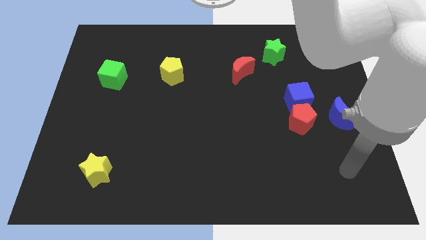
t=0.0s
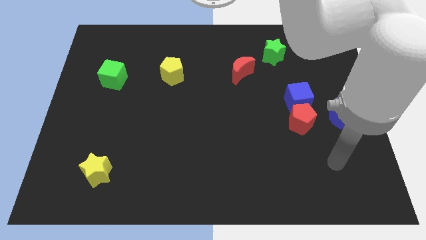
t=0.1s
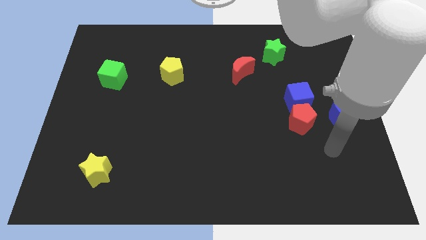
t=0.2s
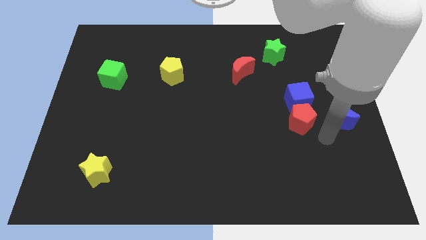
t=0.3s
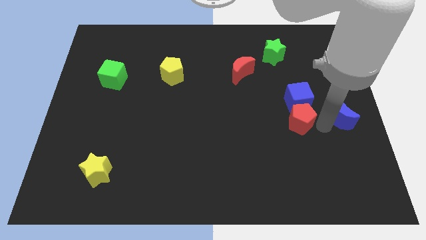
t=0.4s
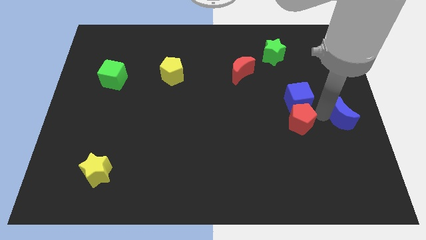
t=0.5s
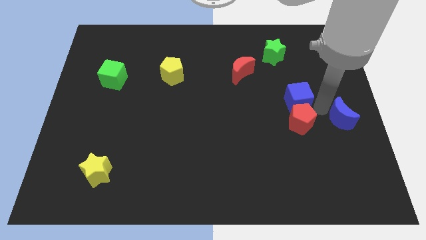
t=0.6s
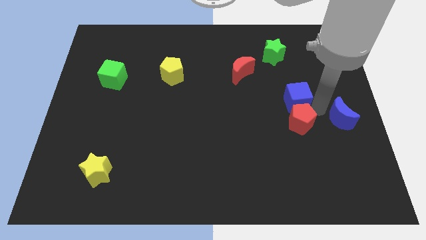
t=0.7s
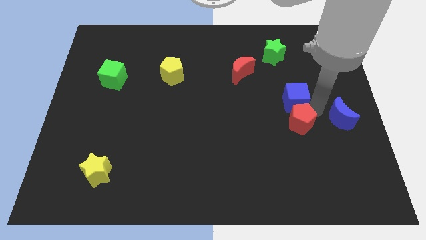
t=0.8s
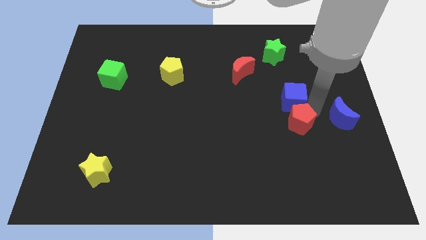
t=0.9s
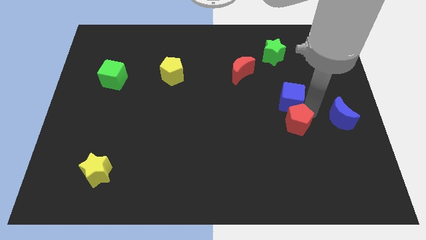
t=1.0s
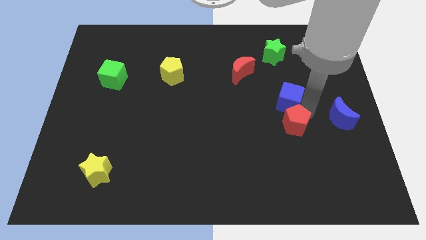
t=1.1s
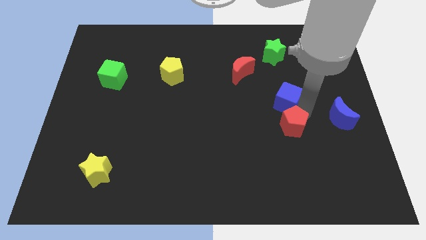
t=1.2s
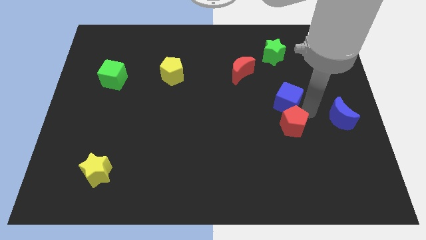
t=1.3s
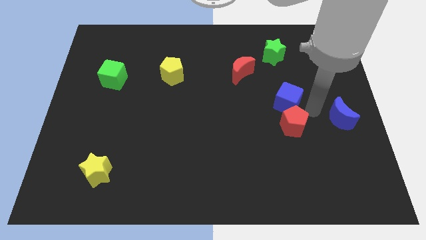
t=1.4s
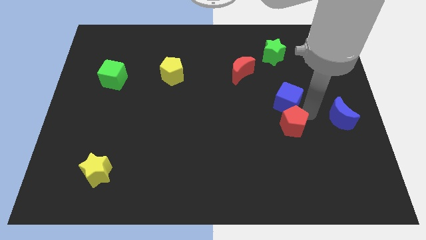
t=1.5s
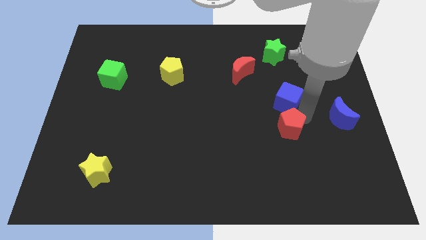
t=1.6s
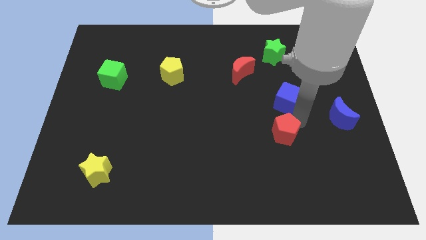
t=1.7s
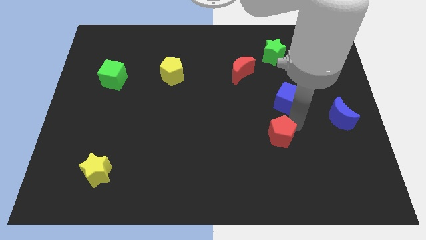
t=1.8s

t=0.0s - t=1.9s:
separate the red pentagon from the blue cube and blue moon

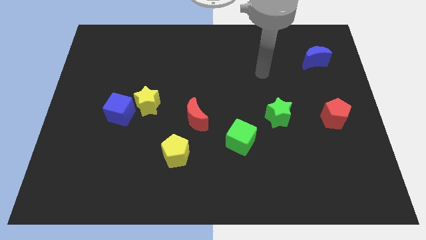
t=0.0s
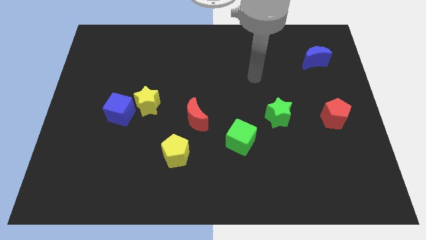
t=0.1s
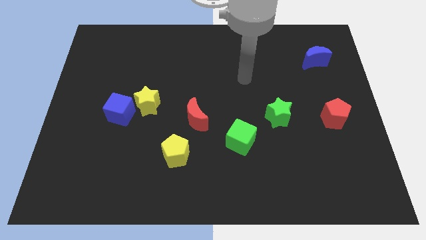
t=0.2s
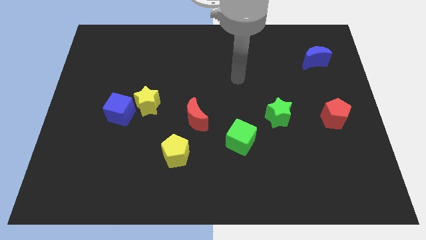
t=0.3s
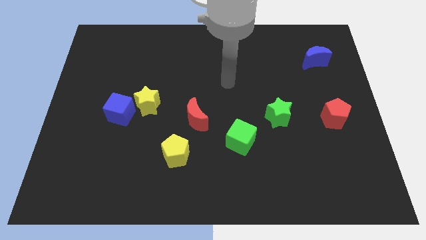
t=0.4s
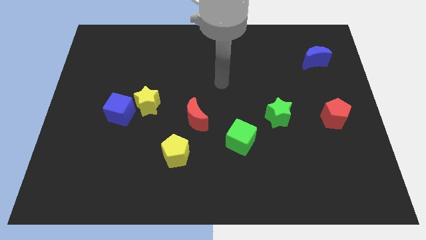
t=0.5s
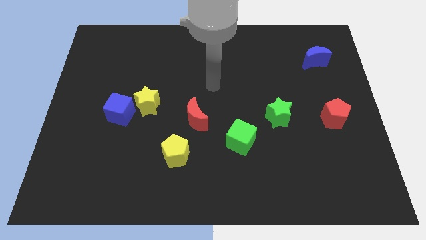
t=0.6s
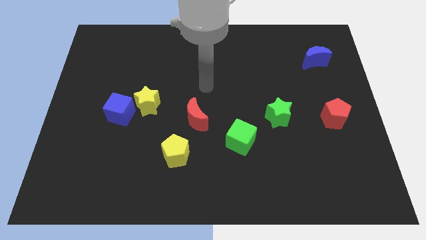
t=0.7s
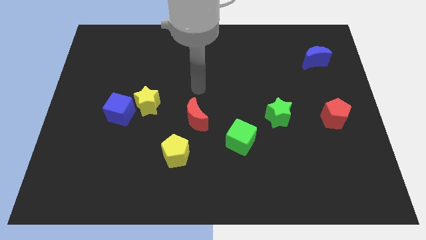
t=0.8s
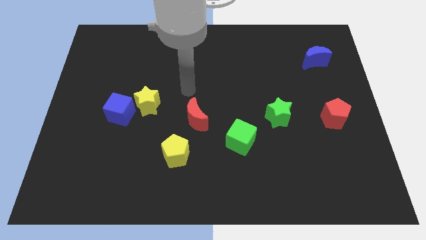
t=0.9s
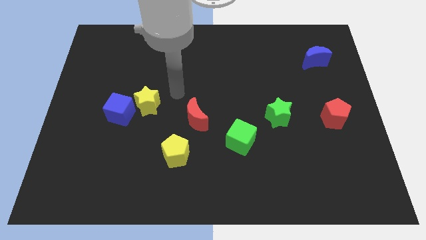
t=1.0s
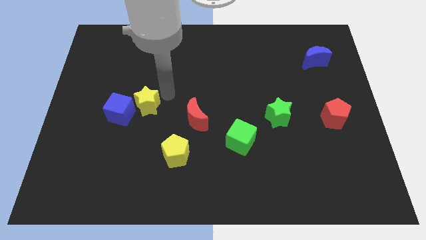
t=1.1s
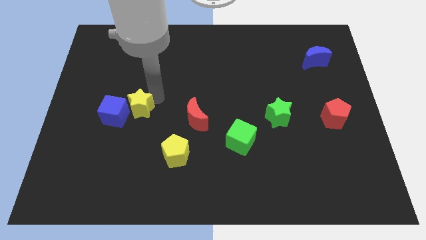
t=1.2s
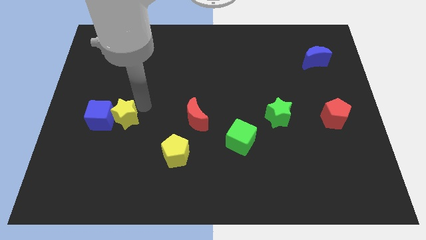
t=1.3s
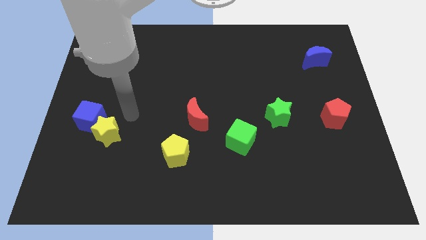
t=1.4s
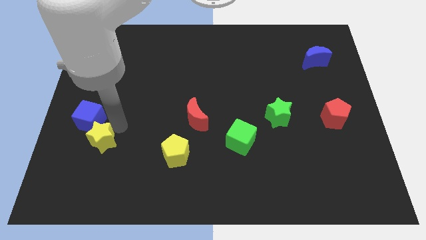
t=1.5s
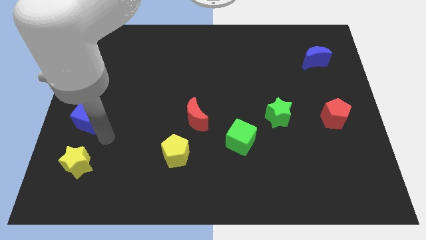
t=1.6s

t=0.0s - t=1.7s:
move the blue cube away from the yellow star

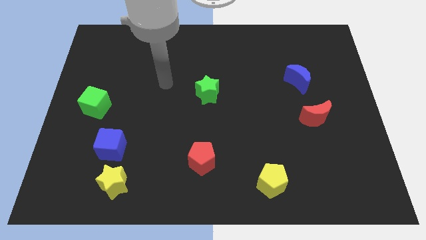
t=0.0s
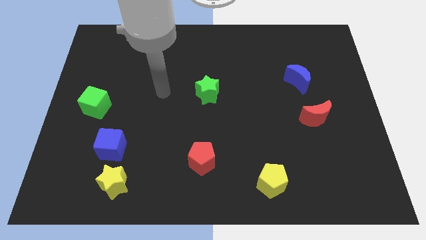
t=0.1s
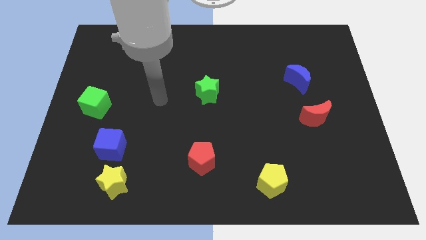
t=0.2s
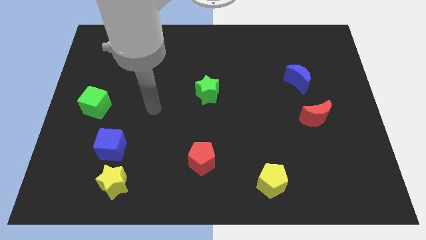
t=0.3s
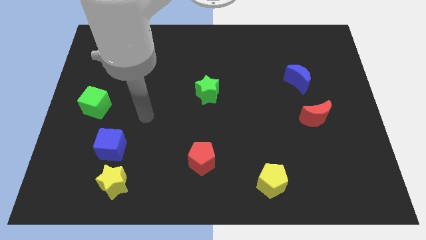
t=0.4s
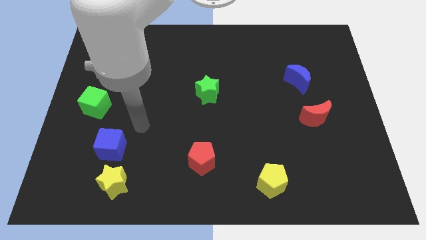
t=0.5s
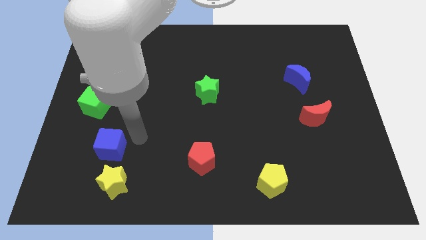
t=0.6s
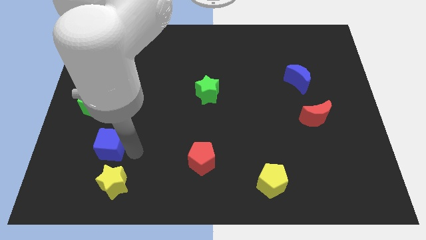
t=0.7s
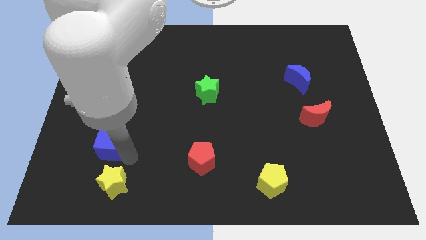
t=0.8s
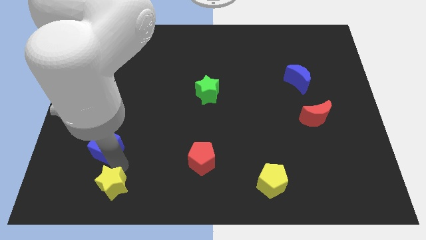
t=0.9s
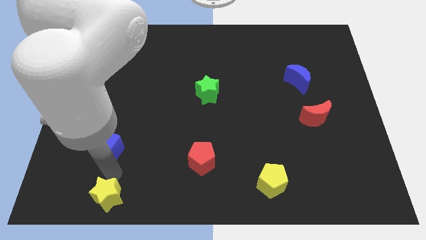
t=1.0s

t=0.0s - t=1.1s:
separate the blue cube from the yellow star

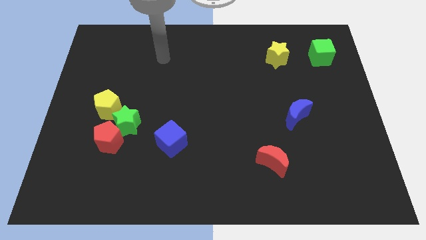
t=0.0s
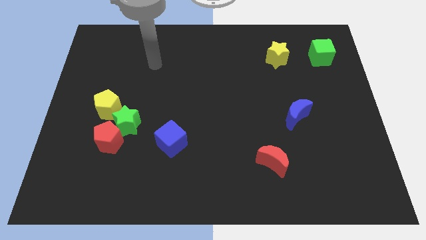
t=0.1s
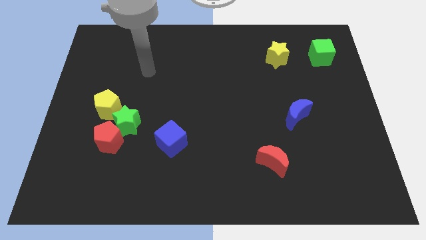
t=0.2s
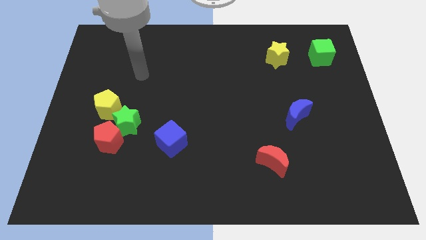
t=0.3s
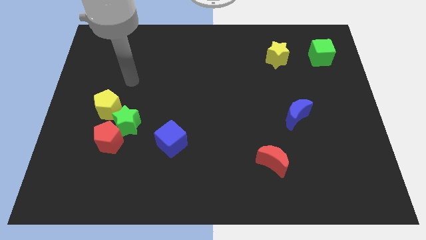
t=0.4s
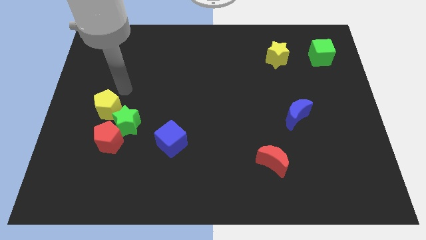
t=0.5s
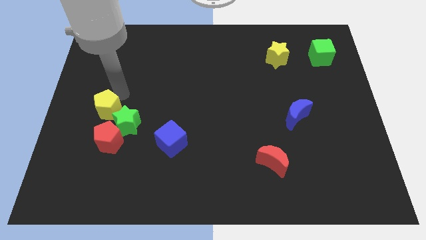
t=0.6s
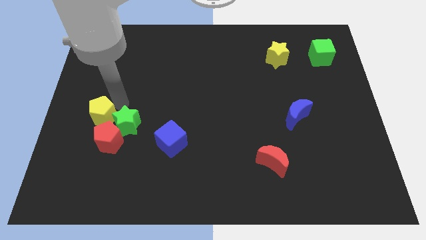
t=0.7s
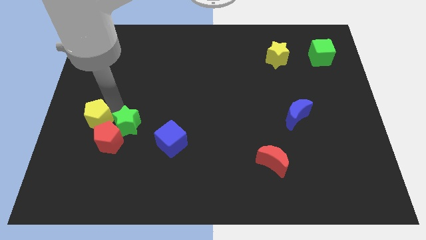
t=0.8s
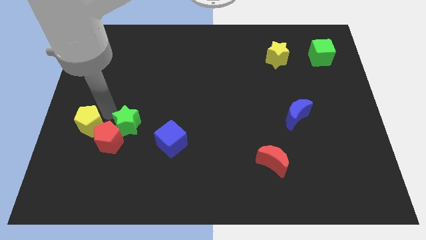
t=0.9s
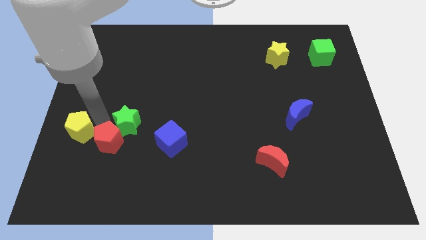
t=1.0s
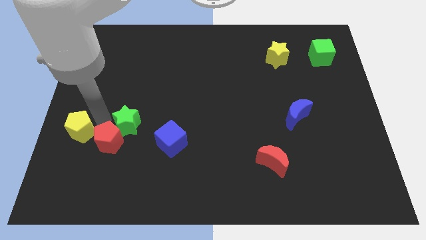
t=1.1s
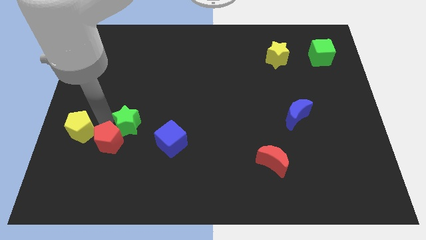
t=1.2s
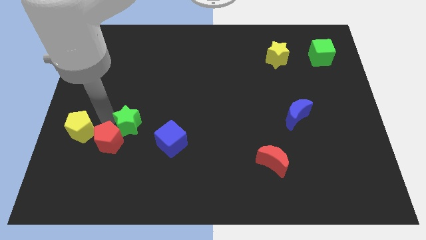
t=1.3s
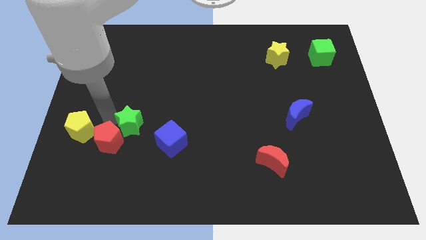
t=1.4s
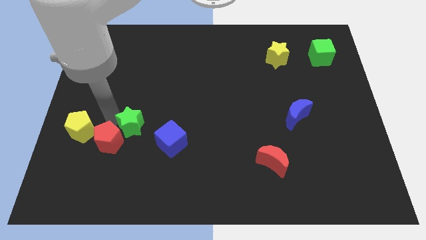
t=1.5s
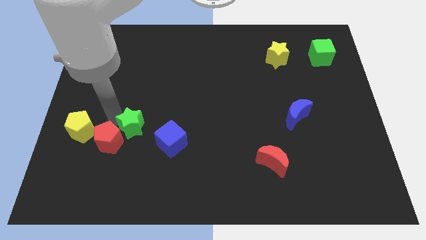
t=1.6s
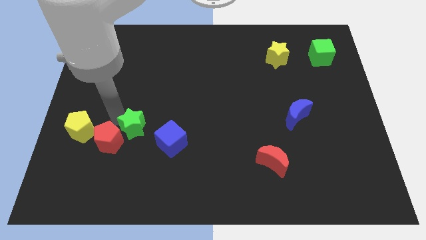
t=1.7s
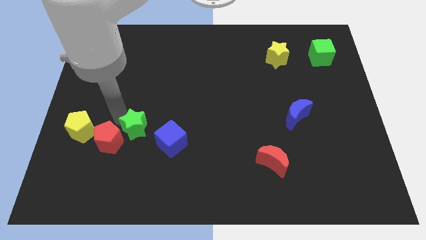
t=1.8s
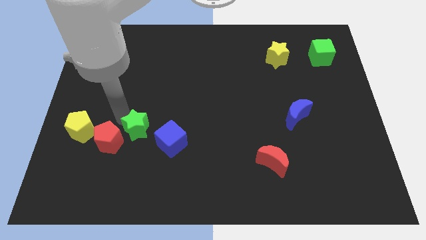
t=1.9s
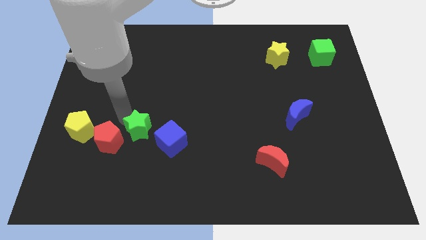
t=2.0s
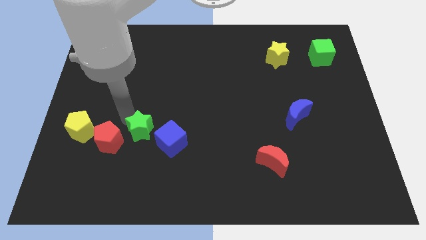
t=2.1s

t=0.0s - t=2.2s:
pull the green star apart from the red pentagon and yellow pentagon

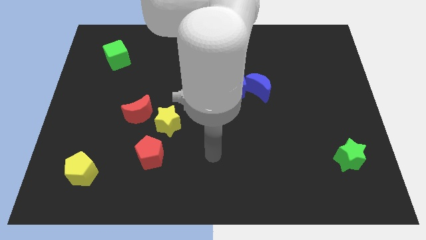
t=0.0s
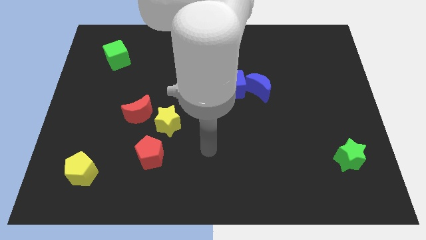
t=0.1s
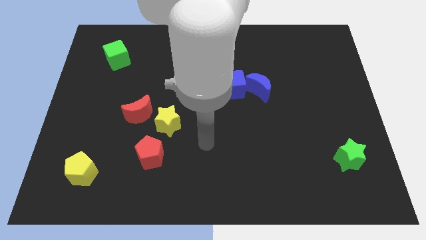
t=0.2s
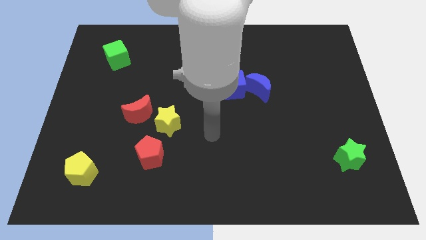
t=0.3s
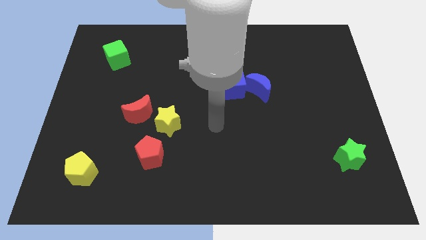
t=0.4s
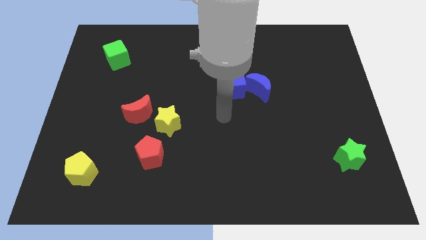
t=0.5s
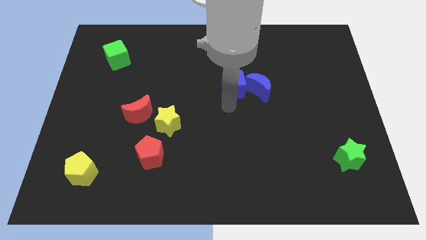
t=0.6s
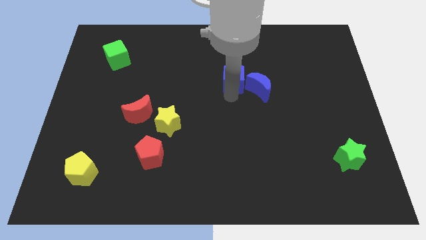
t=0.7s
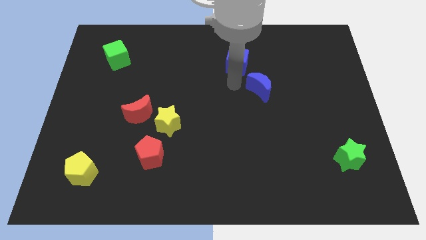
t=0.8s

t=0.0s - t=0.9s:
move the blue moon away from the blue cube

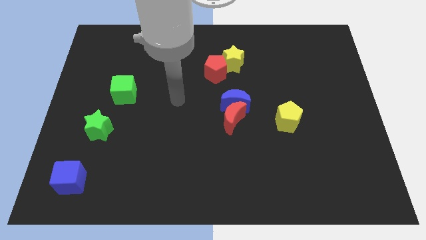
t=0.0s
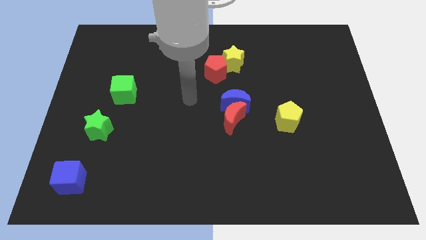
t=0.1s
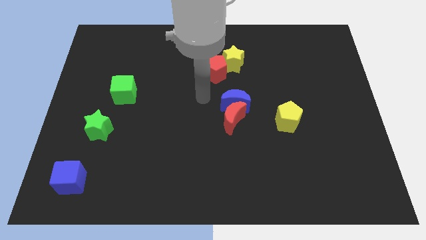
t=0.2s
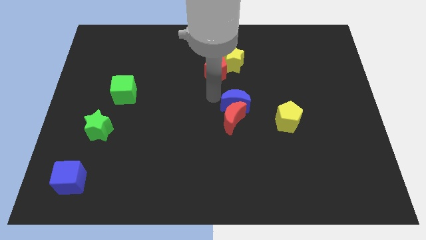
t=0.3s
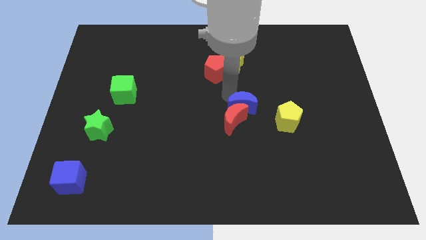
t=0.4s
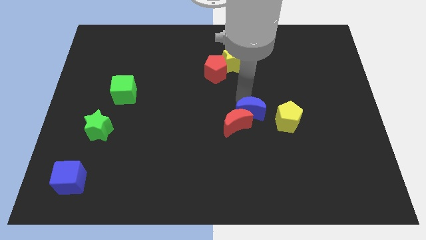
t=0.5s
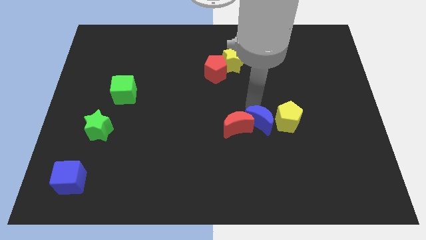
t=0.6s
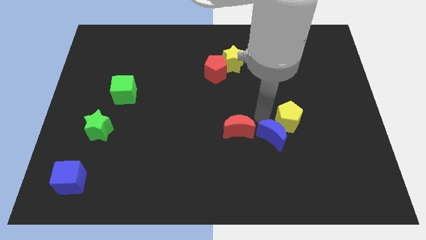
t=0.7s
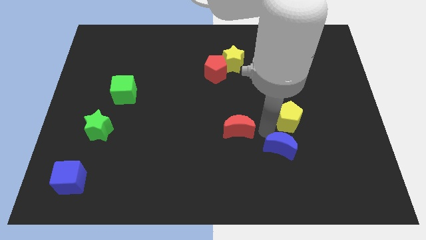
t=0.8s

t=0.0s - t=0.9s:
move the red moon away from the blue moon

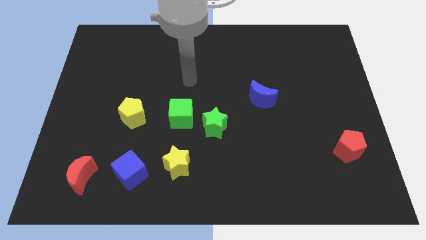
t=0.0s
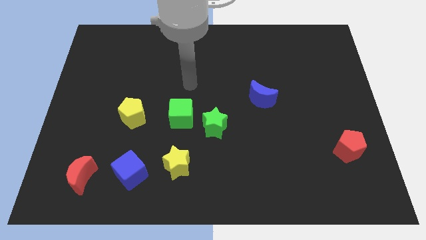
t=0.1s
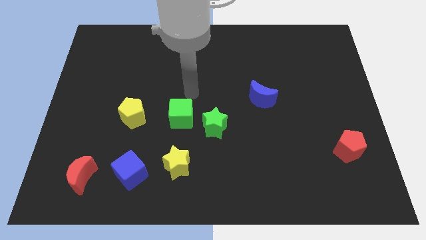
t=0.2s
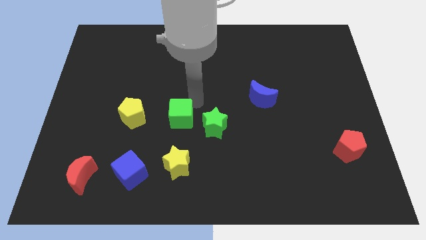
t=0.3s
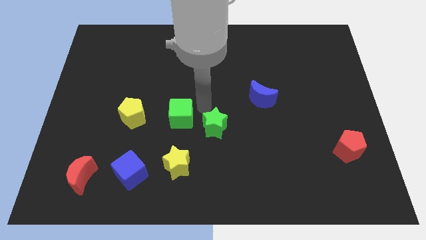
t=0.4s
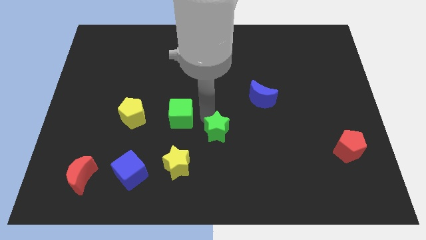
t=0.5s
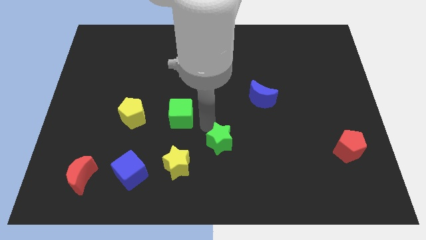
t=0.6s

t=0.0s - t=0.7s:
pull the green cube apart from the green star
